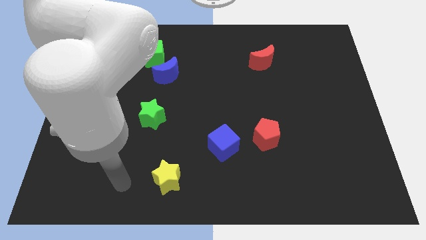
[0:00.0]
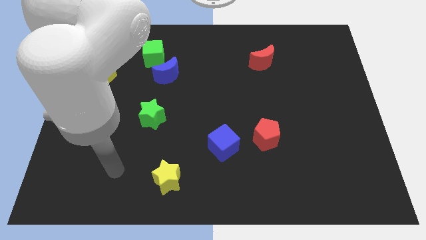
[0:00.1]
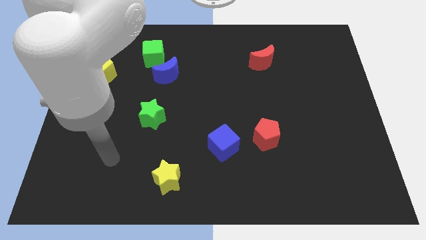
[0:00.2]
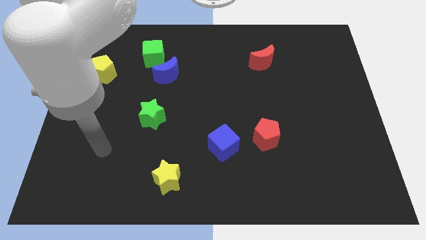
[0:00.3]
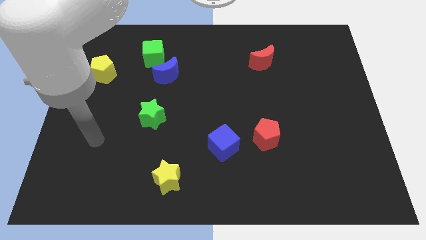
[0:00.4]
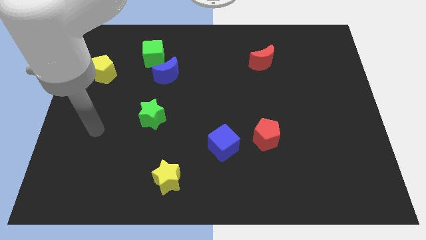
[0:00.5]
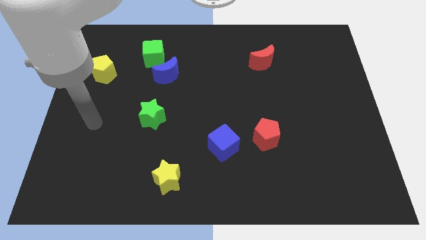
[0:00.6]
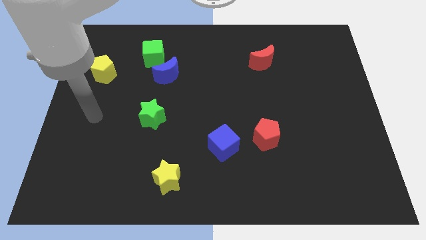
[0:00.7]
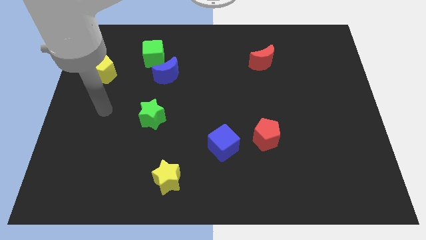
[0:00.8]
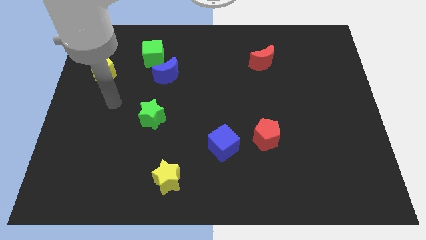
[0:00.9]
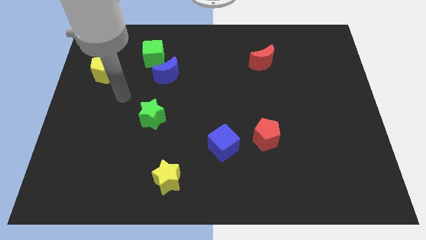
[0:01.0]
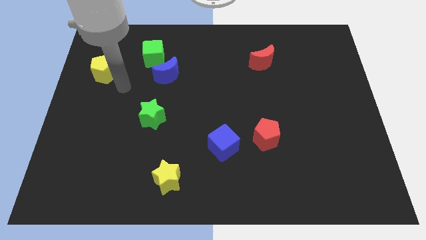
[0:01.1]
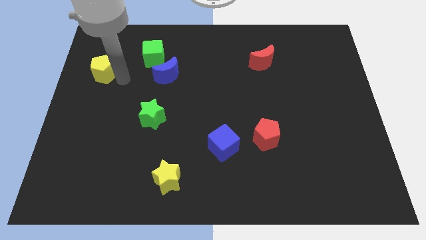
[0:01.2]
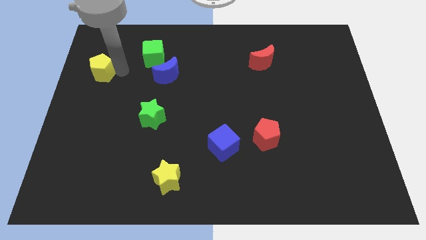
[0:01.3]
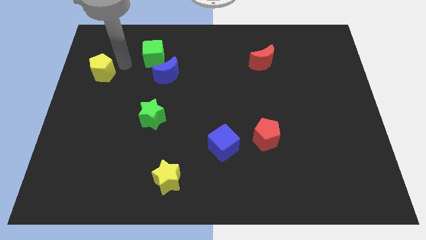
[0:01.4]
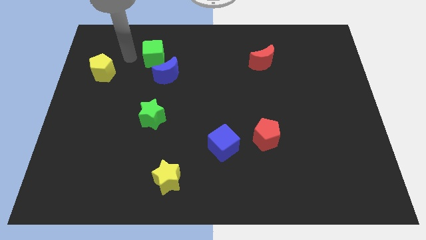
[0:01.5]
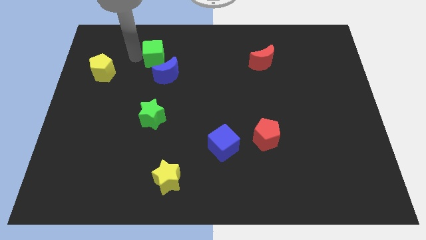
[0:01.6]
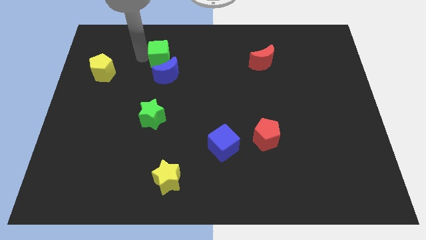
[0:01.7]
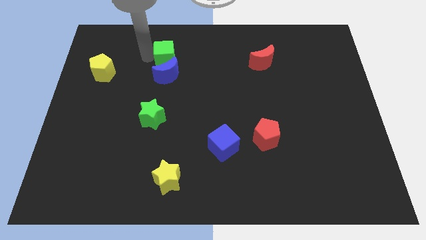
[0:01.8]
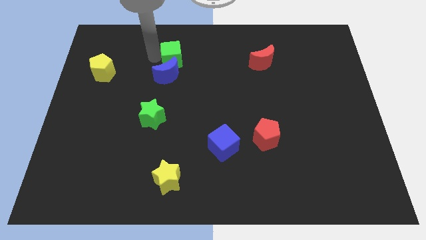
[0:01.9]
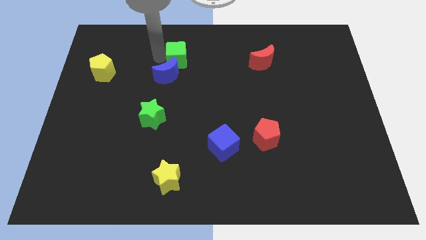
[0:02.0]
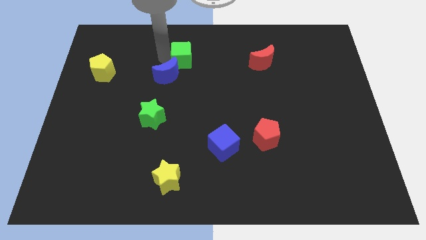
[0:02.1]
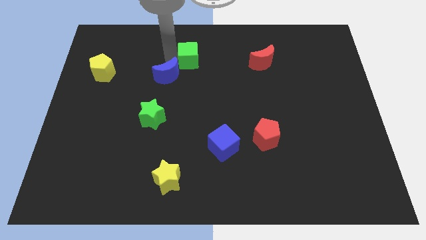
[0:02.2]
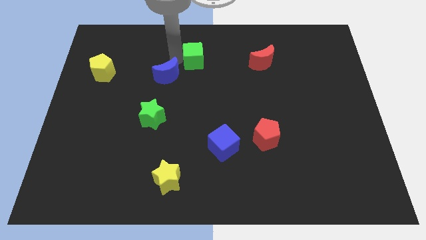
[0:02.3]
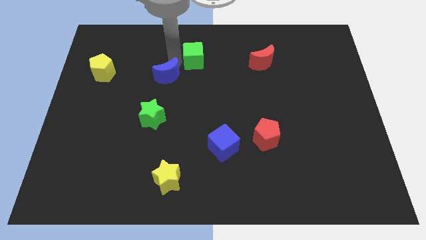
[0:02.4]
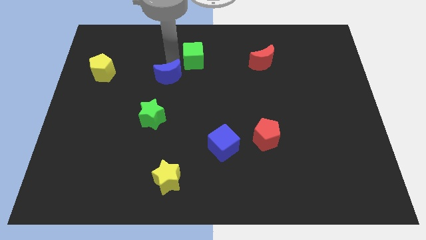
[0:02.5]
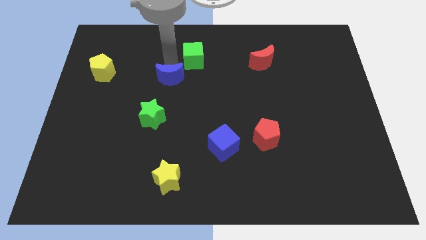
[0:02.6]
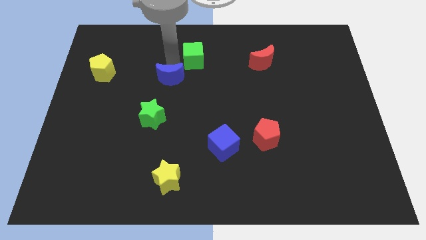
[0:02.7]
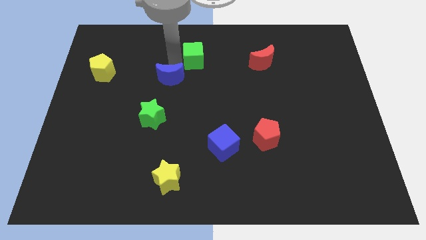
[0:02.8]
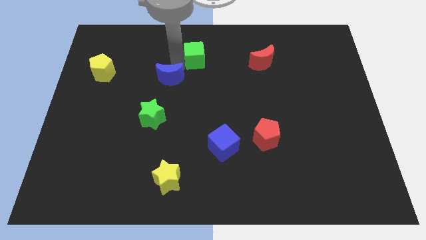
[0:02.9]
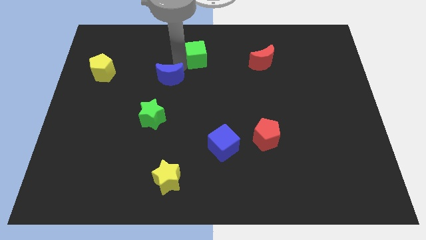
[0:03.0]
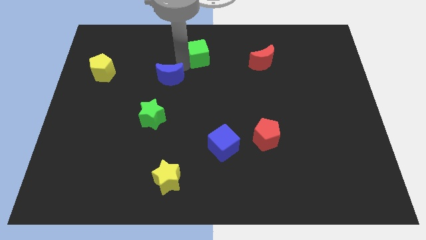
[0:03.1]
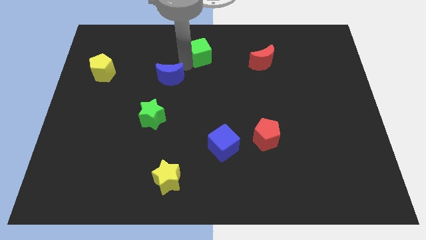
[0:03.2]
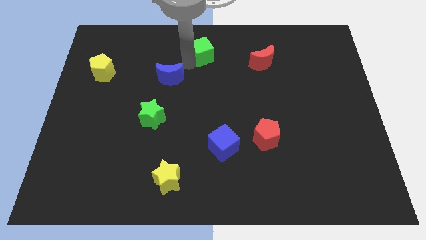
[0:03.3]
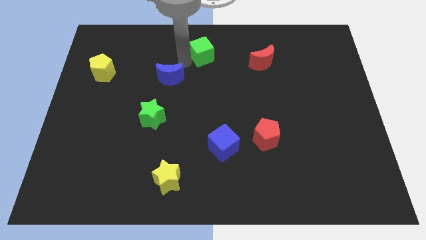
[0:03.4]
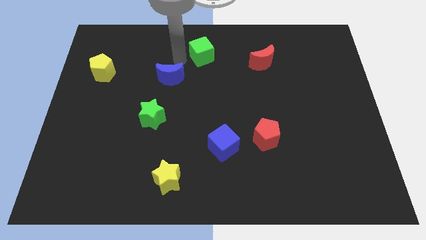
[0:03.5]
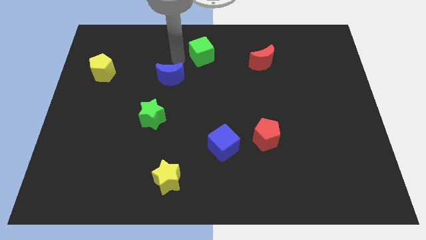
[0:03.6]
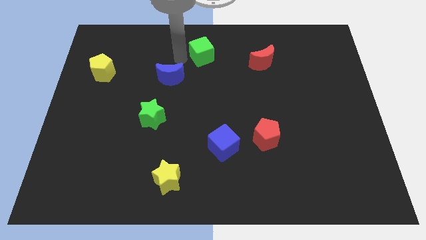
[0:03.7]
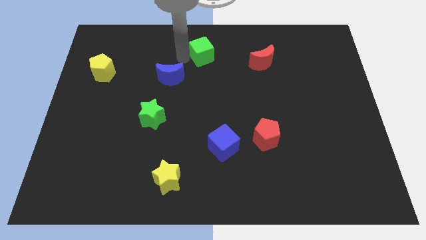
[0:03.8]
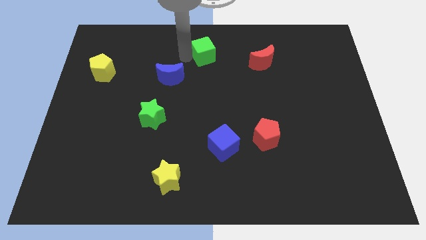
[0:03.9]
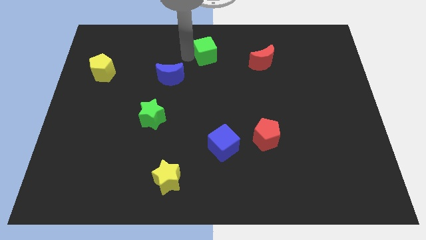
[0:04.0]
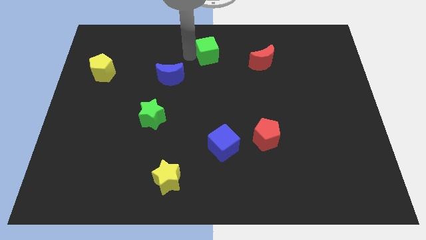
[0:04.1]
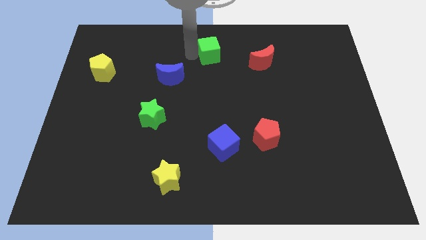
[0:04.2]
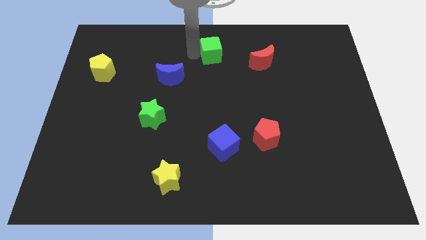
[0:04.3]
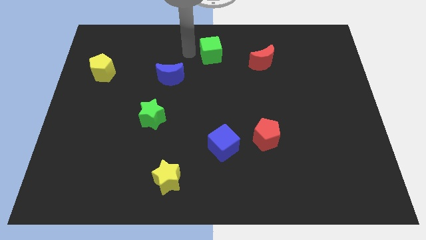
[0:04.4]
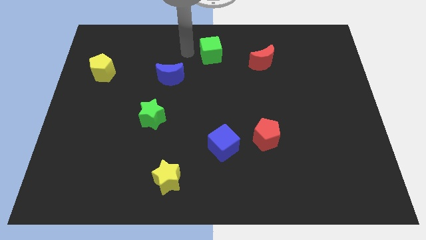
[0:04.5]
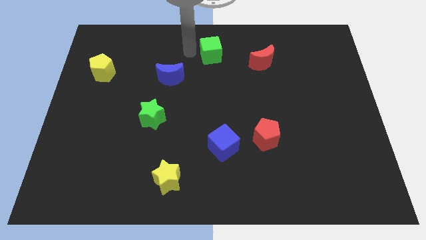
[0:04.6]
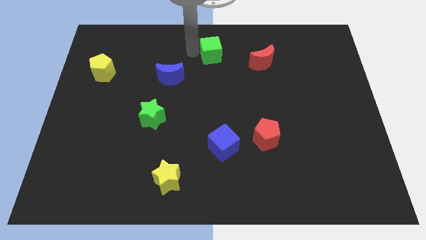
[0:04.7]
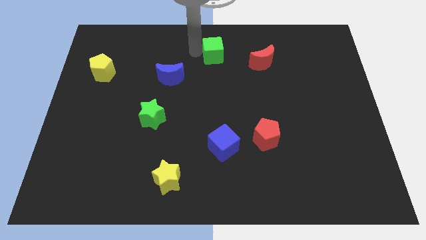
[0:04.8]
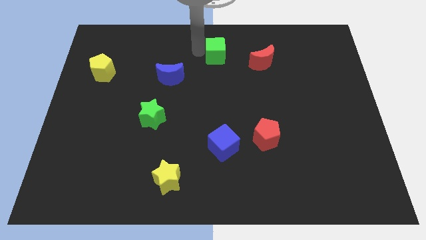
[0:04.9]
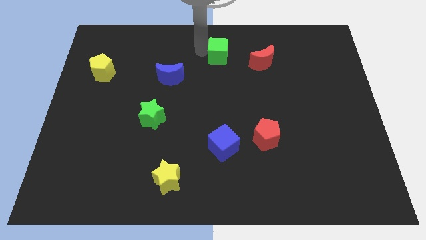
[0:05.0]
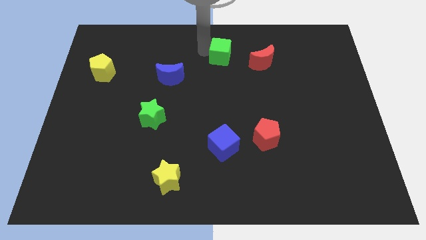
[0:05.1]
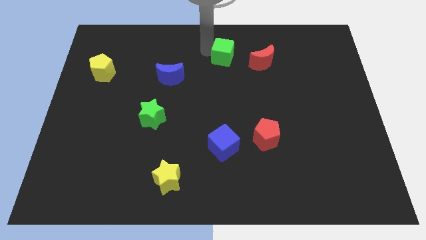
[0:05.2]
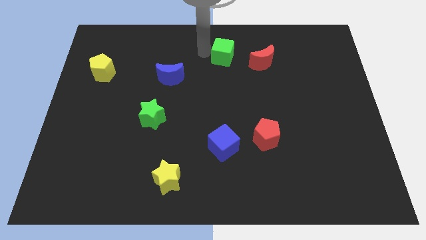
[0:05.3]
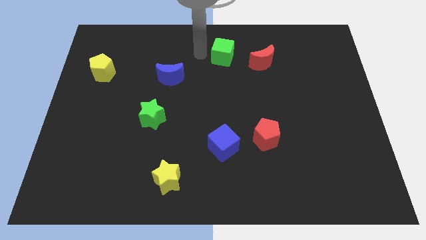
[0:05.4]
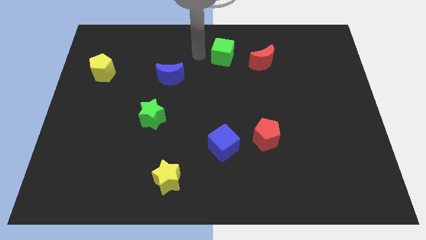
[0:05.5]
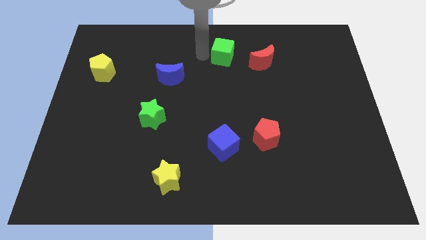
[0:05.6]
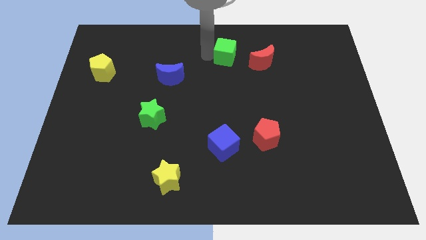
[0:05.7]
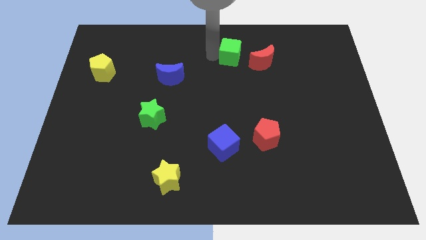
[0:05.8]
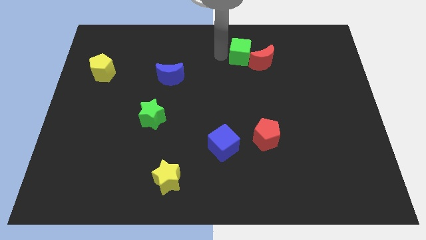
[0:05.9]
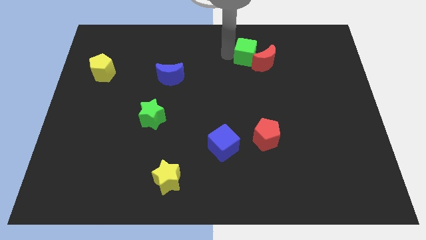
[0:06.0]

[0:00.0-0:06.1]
slide the green cube next to the red moon
